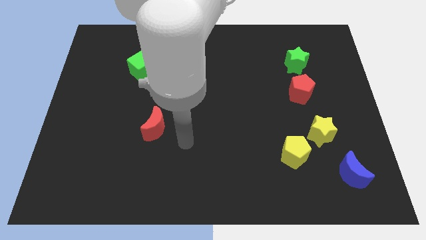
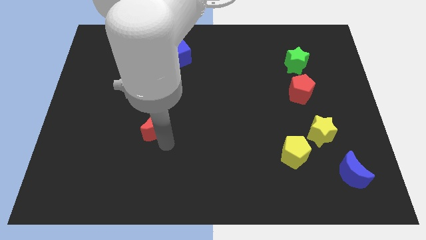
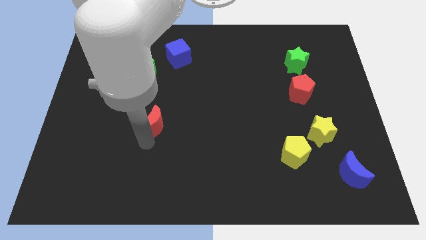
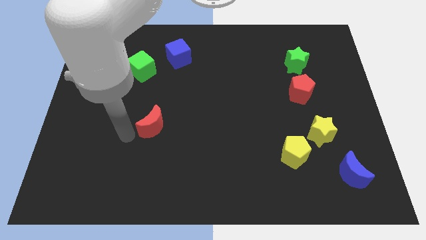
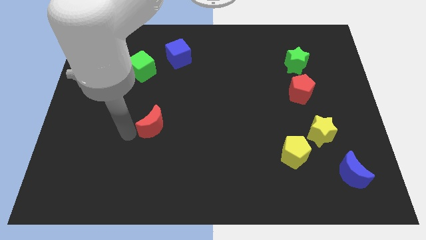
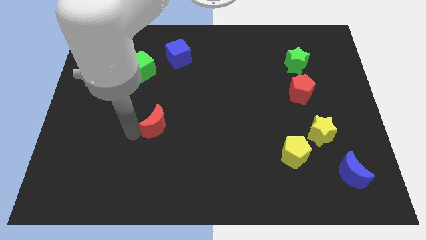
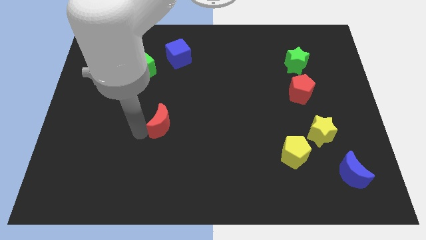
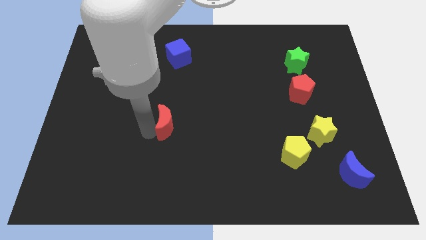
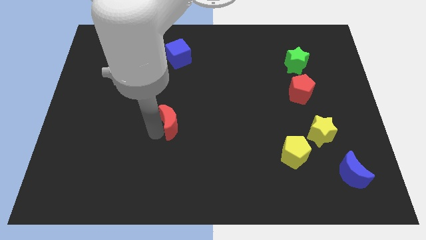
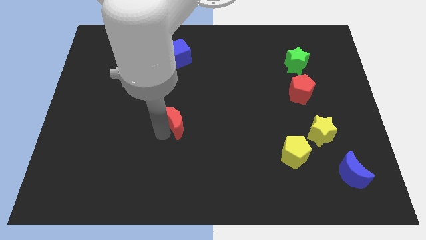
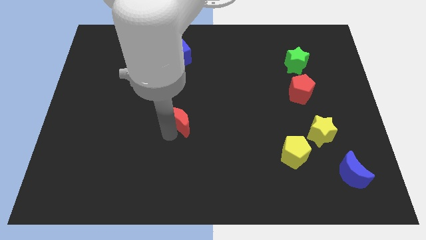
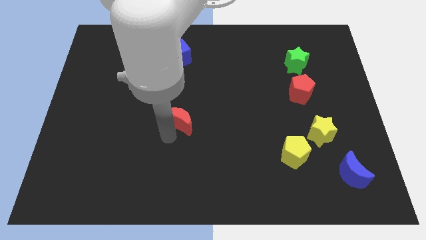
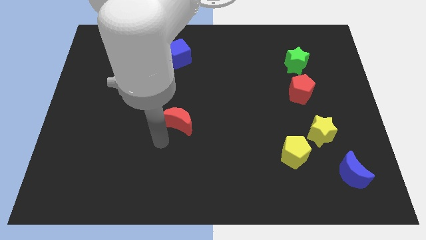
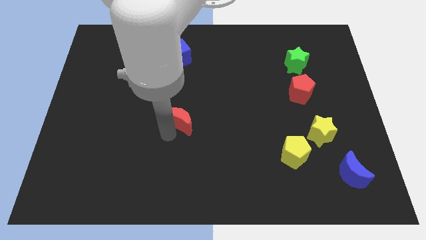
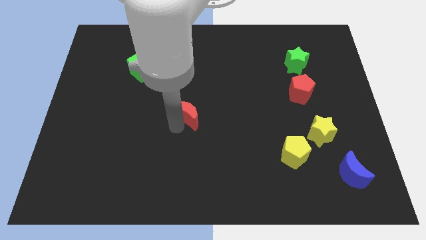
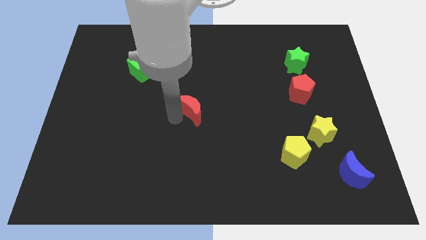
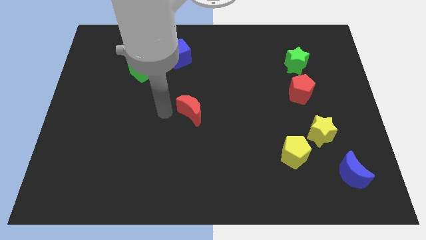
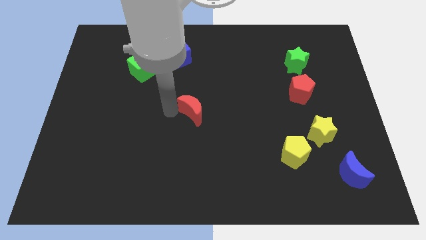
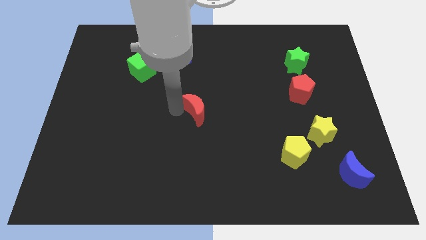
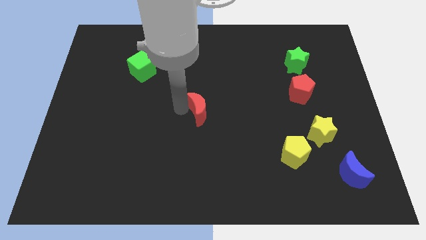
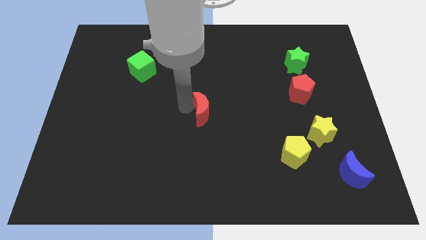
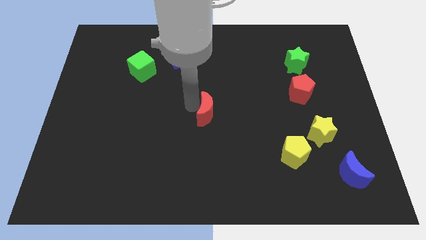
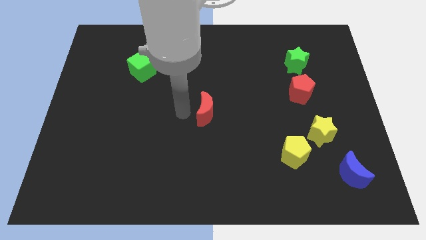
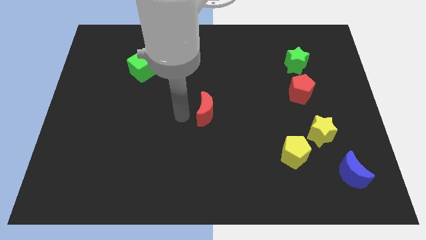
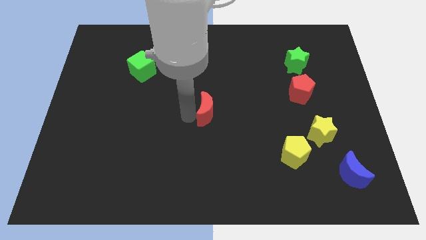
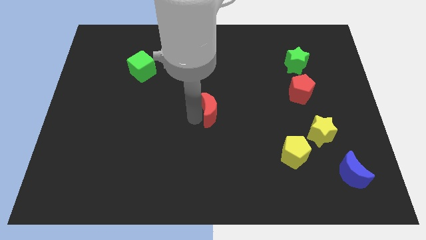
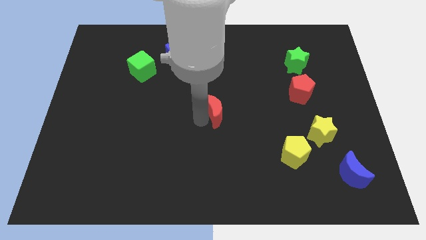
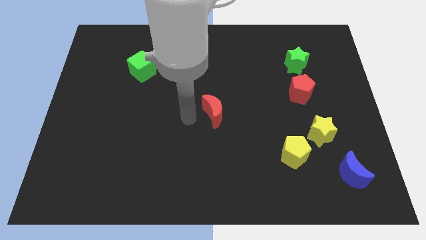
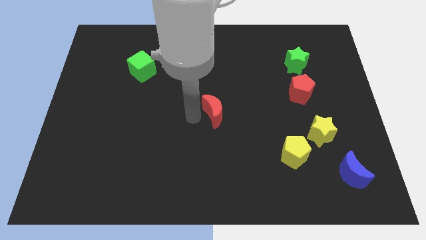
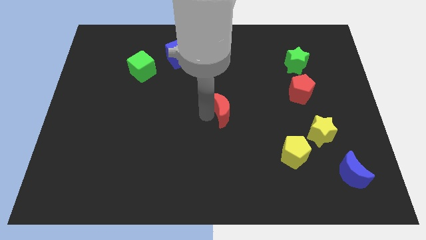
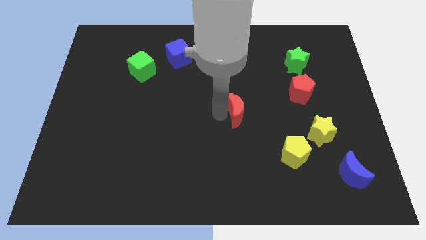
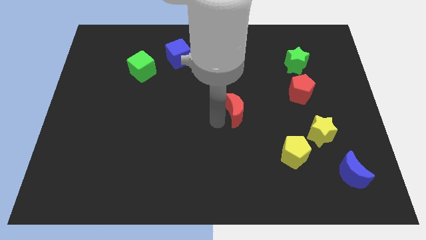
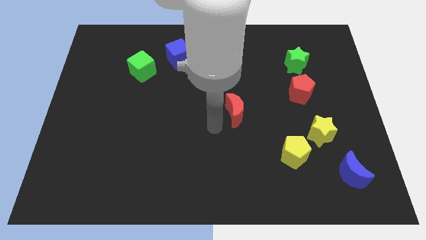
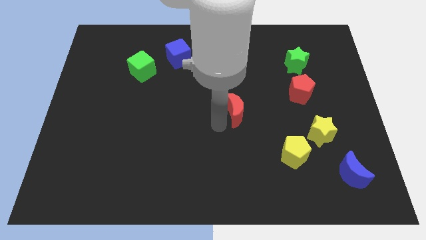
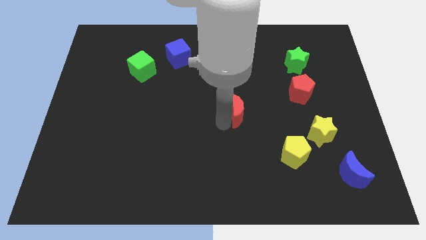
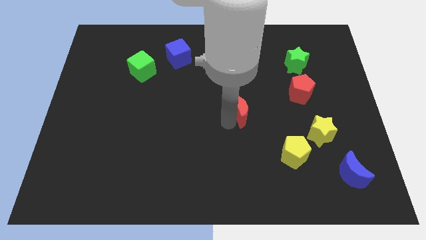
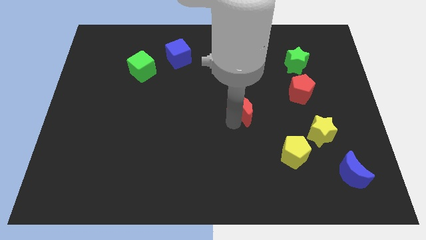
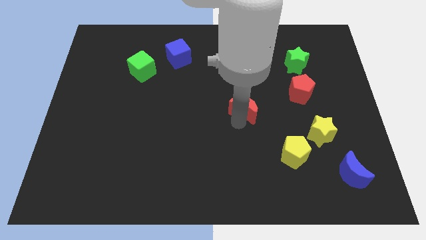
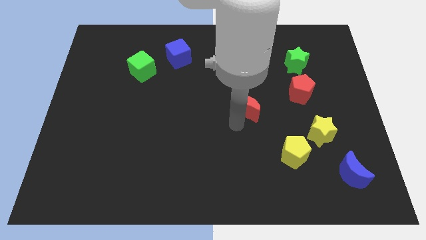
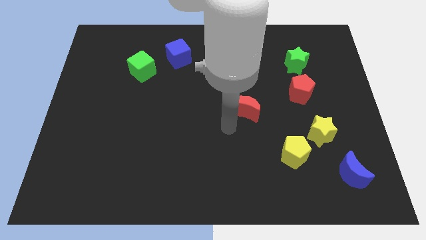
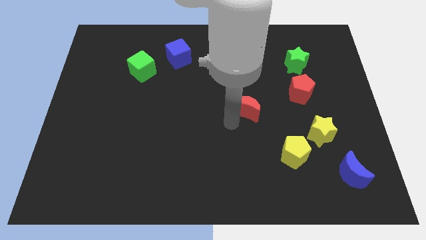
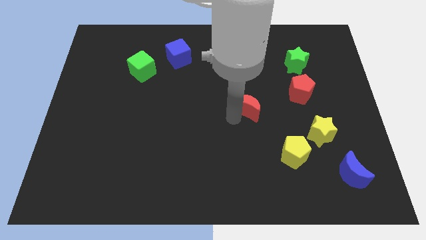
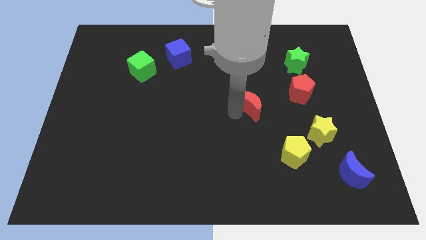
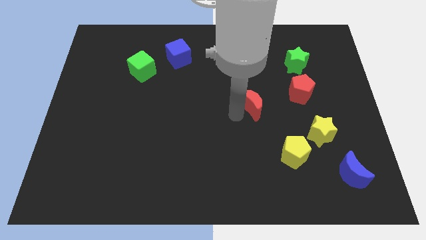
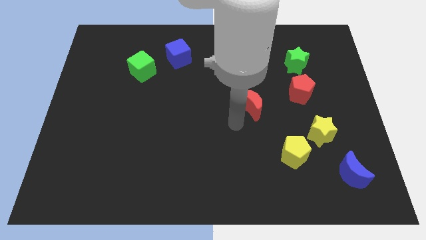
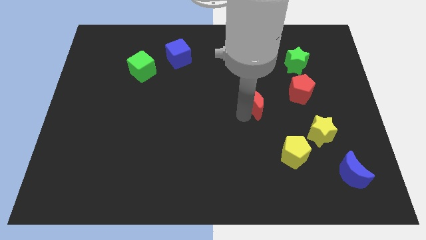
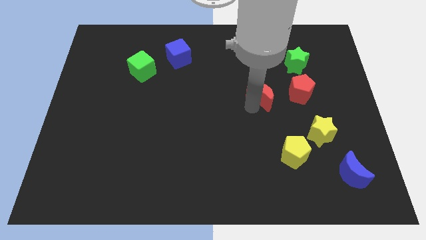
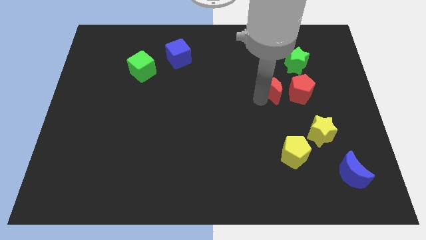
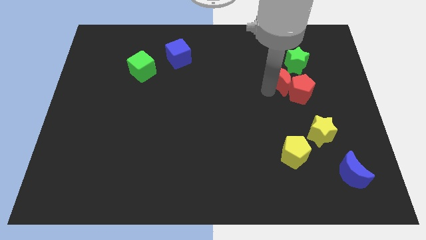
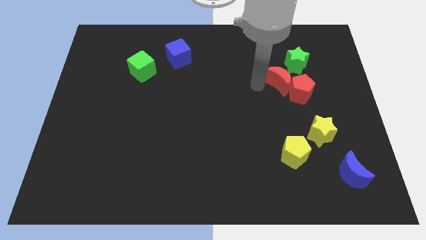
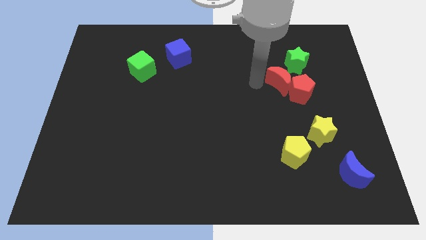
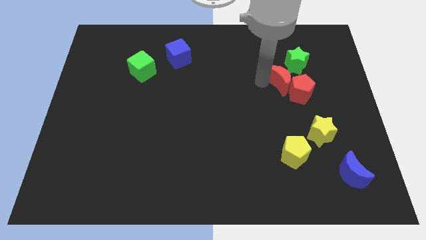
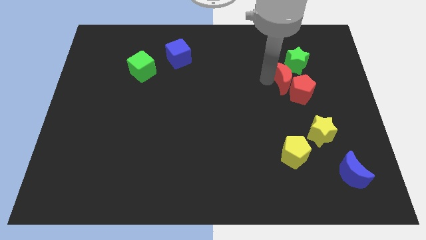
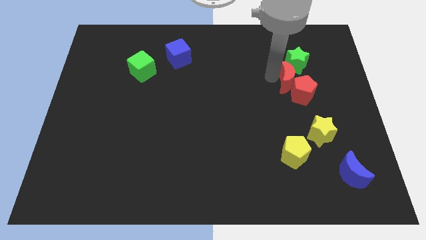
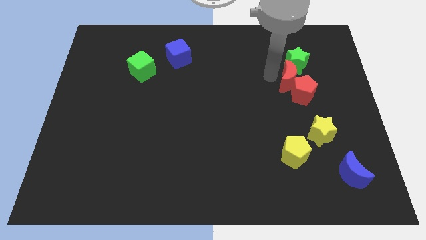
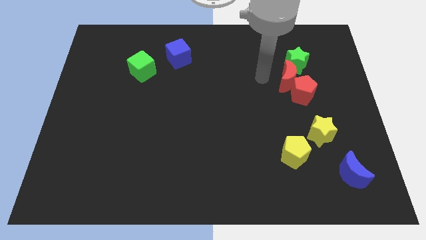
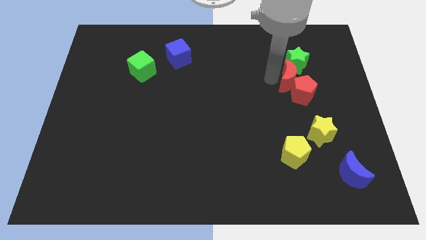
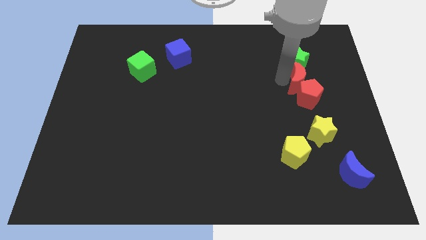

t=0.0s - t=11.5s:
push the red moon to the top side of the yellow star

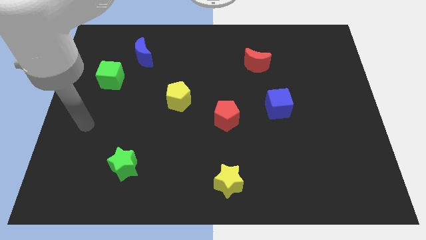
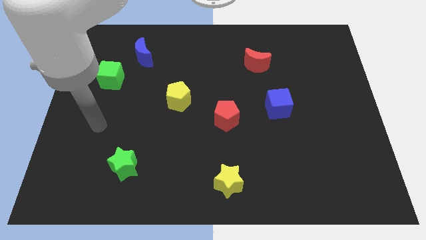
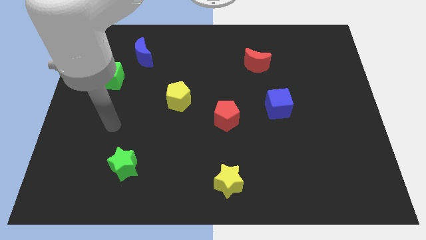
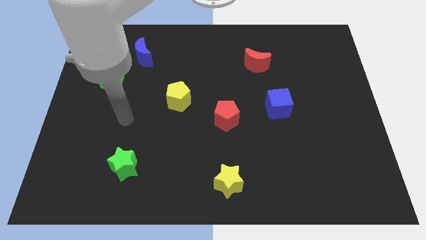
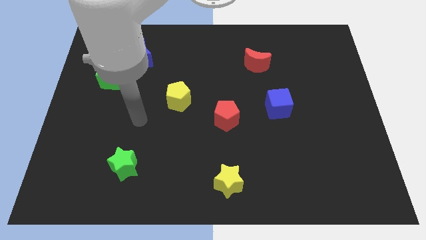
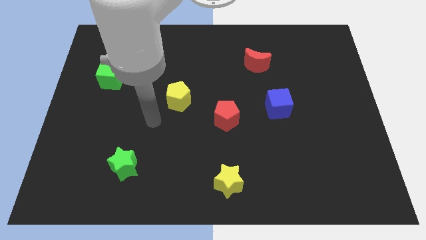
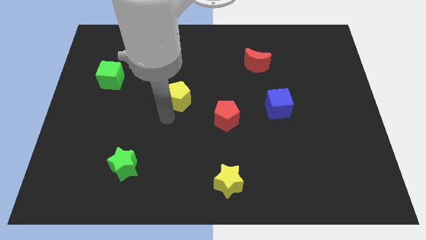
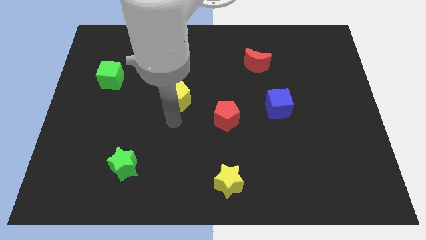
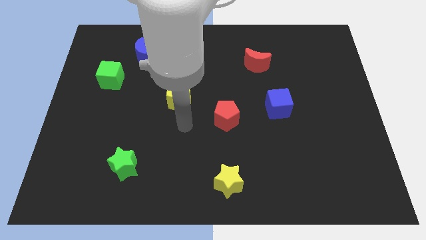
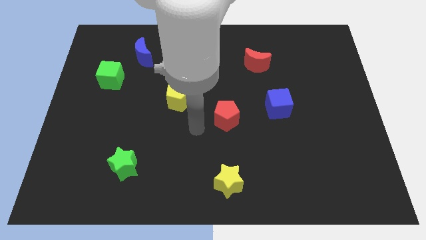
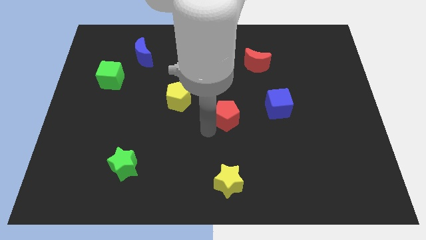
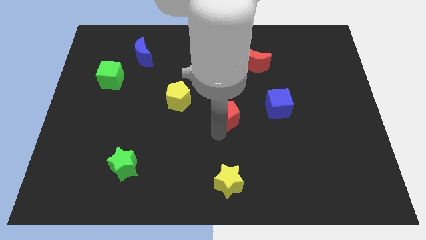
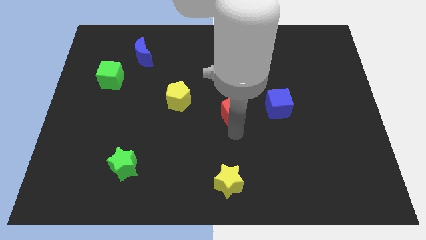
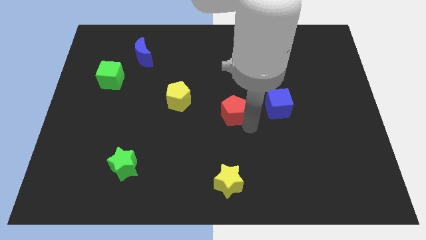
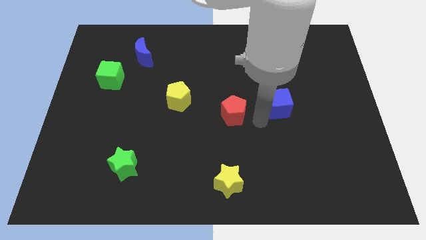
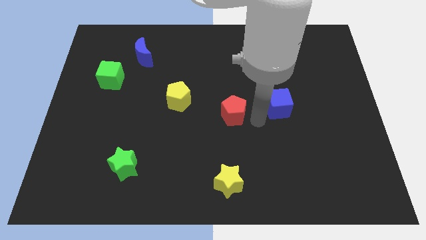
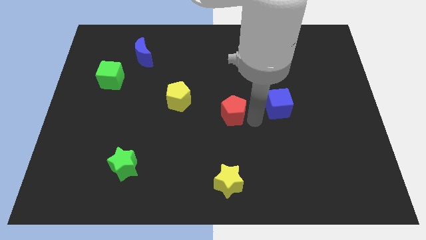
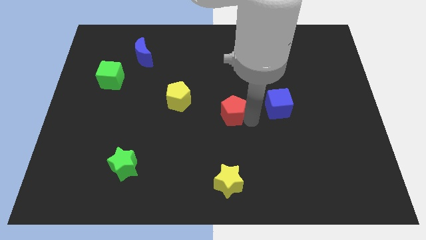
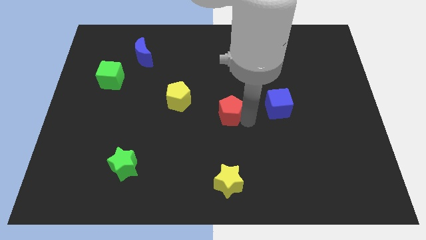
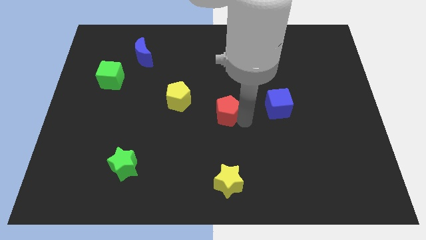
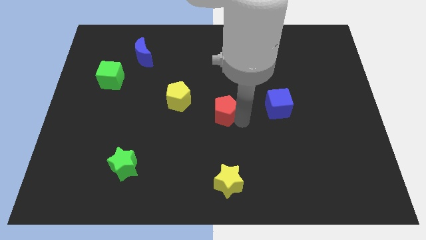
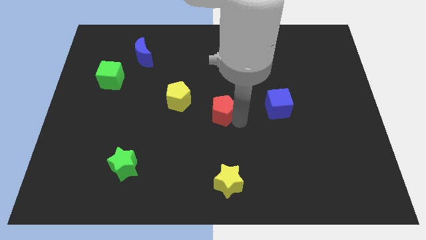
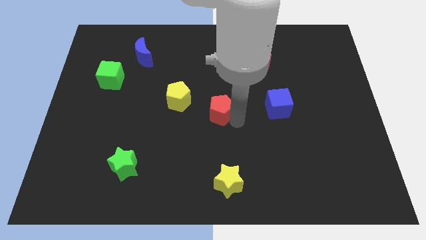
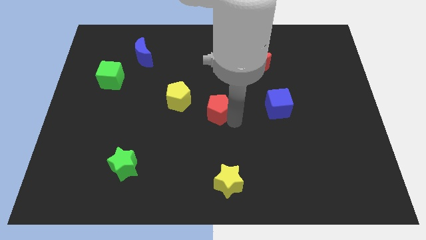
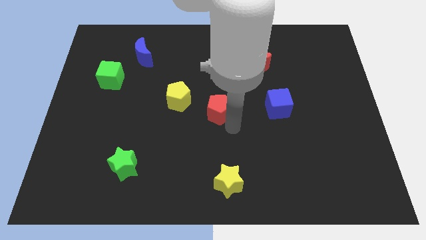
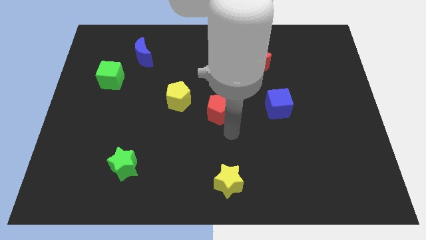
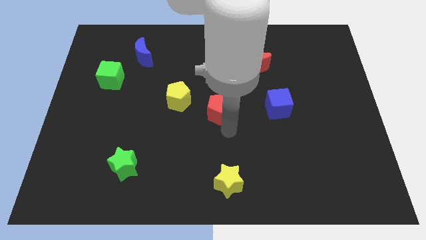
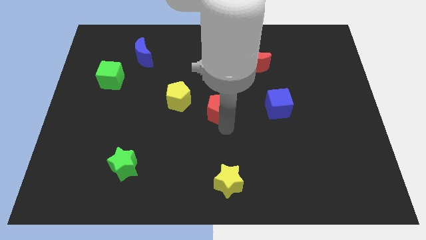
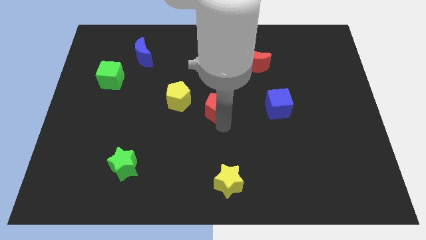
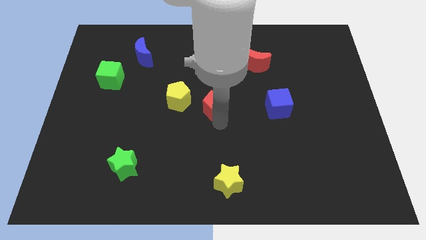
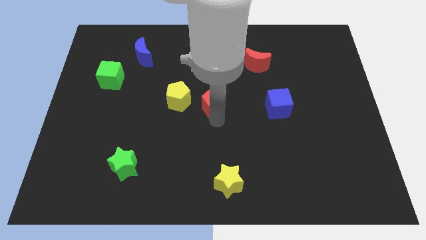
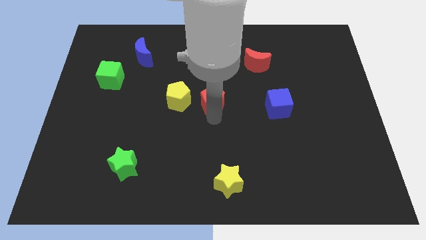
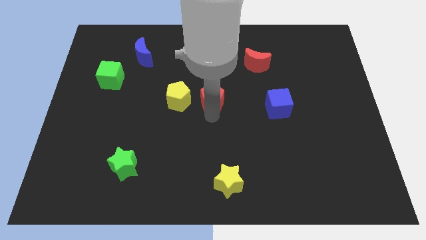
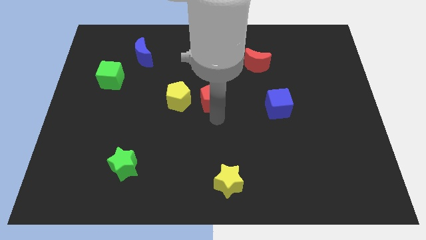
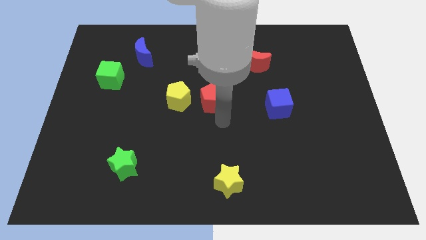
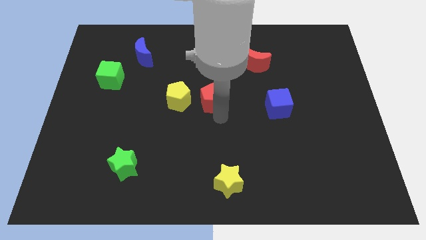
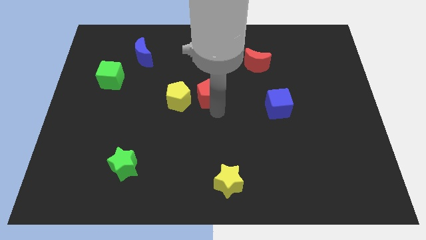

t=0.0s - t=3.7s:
move the red pentagon to the top right side of the yellow pentagon
